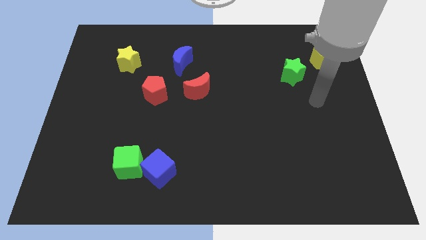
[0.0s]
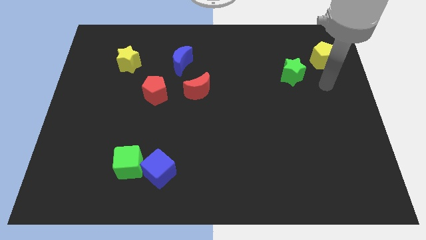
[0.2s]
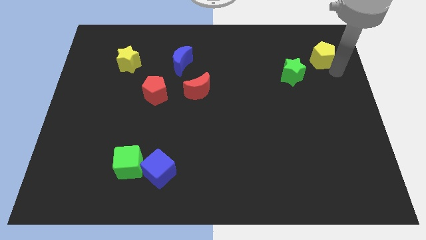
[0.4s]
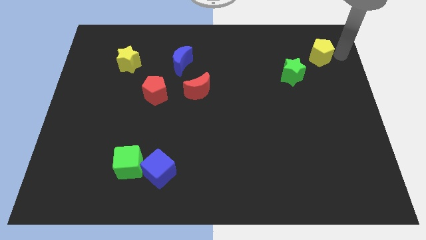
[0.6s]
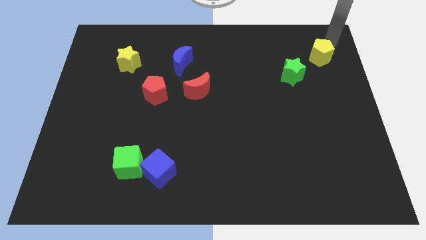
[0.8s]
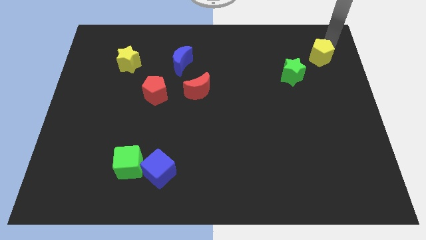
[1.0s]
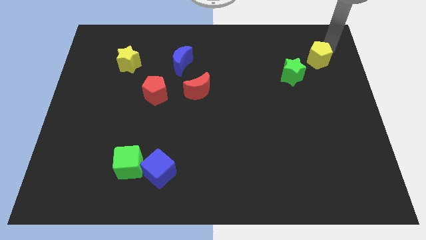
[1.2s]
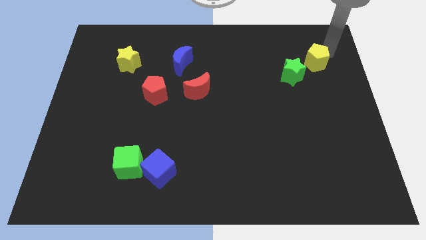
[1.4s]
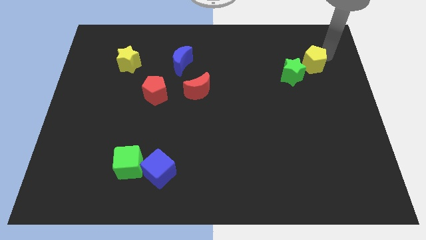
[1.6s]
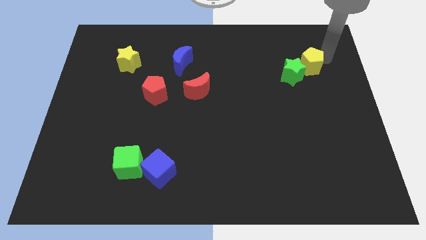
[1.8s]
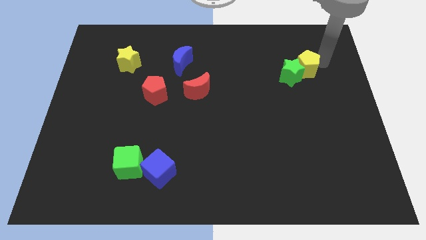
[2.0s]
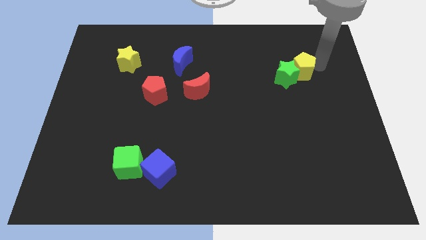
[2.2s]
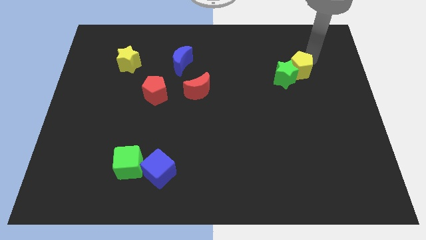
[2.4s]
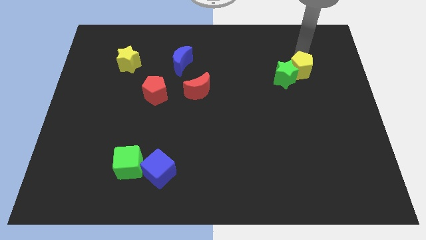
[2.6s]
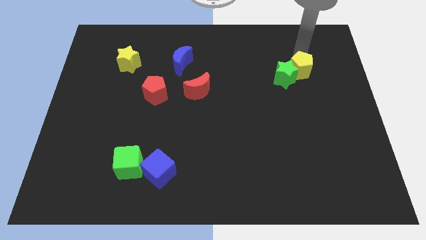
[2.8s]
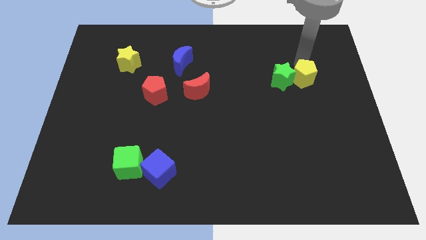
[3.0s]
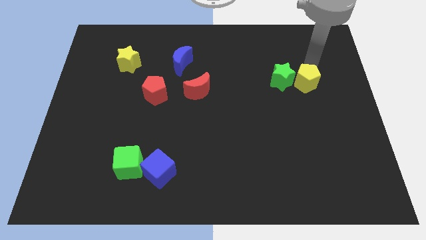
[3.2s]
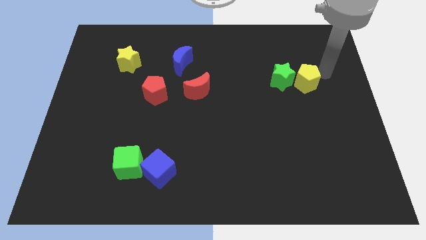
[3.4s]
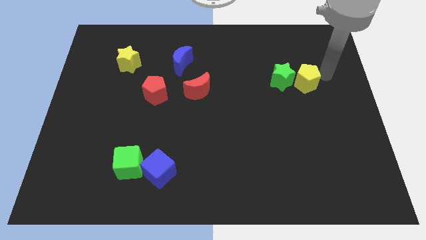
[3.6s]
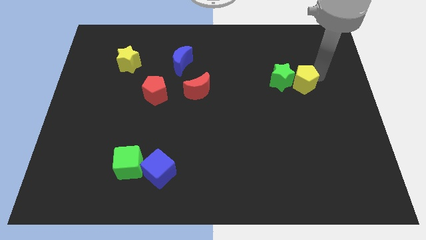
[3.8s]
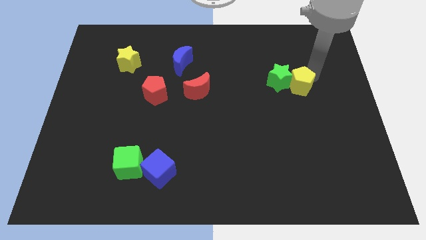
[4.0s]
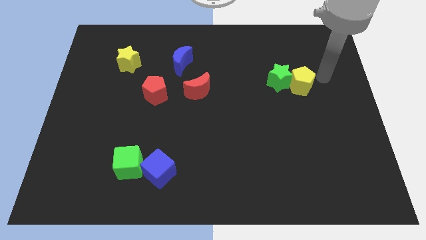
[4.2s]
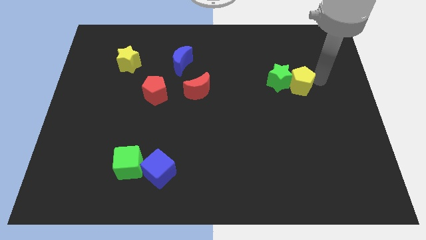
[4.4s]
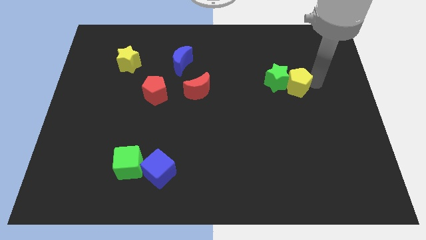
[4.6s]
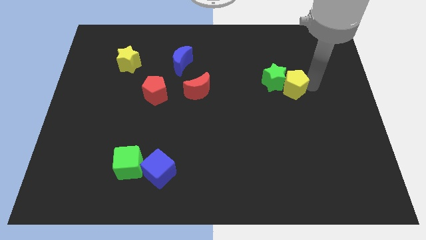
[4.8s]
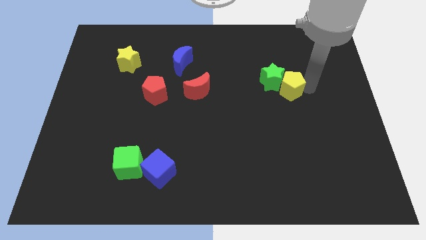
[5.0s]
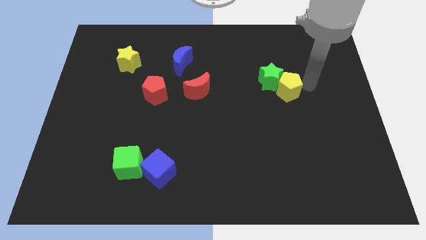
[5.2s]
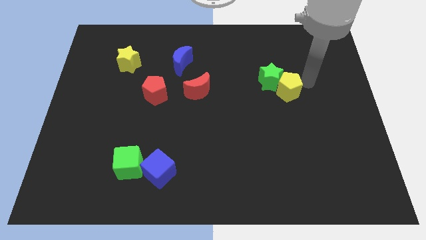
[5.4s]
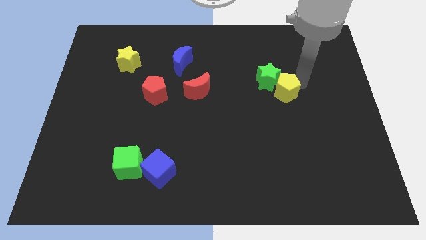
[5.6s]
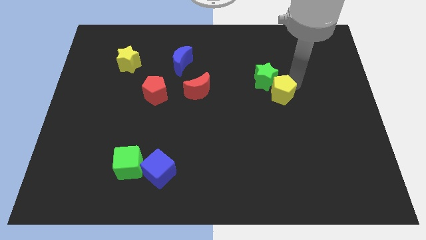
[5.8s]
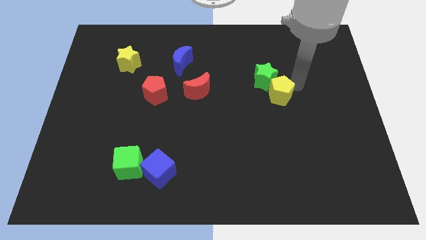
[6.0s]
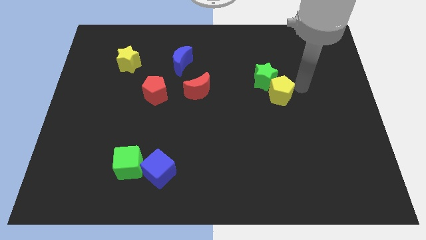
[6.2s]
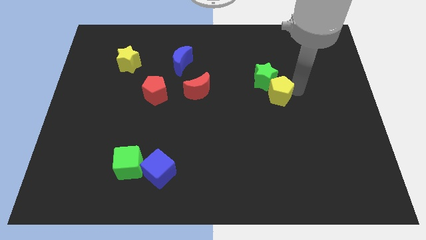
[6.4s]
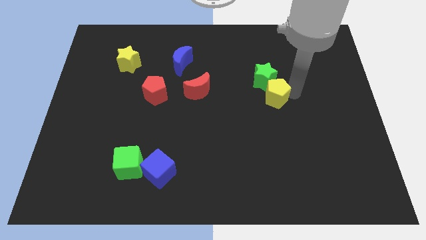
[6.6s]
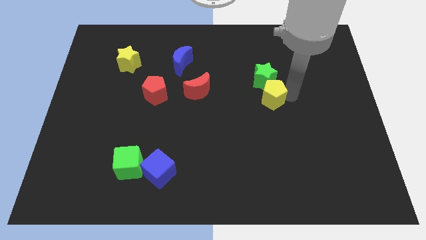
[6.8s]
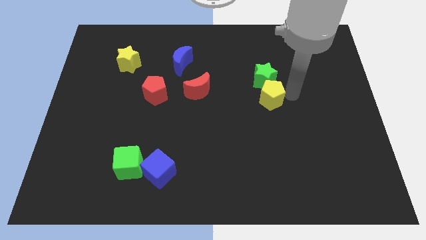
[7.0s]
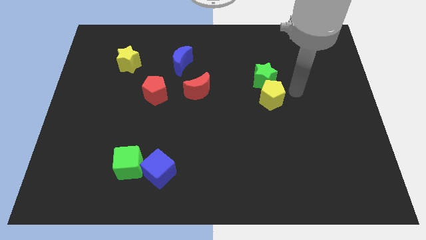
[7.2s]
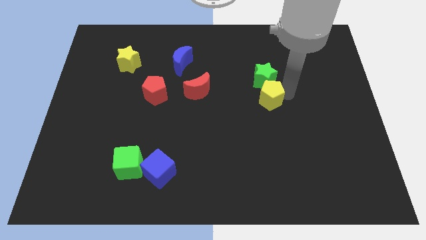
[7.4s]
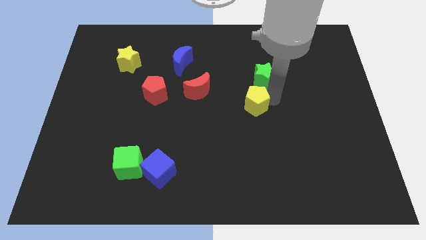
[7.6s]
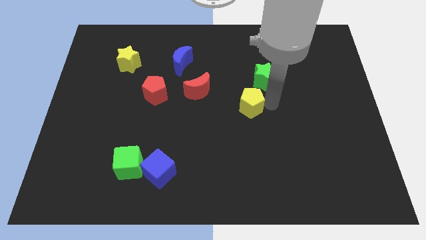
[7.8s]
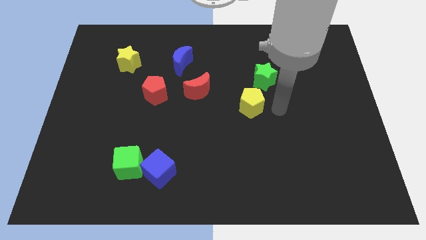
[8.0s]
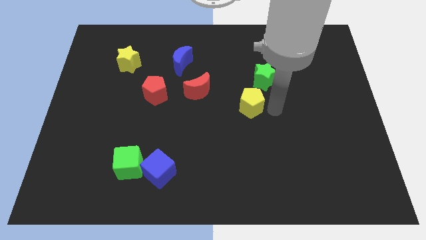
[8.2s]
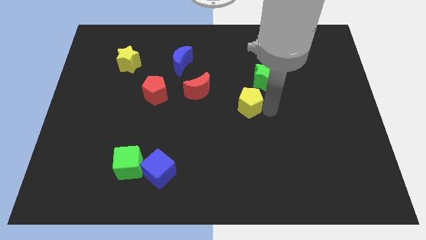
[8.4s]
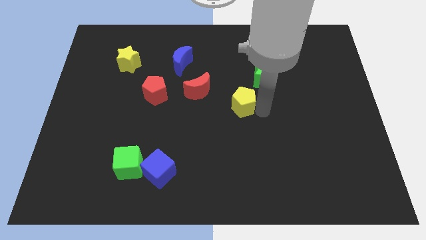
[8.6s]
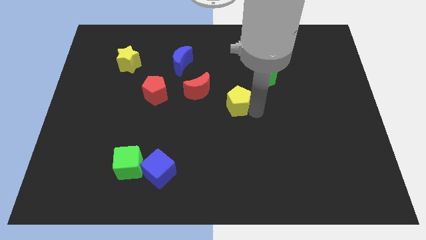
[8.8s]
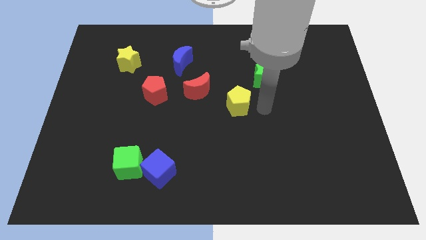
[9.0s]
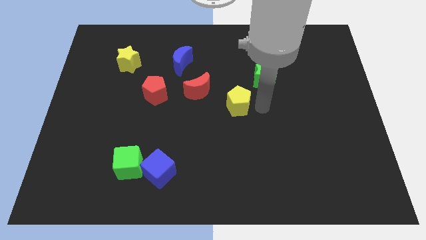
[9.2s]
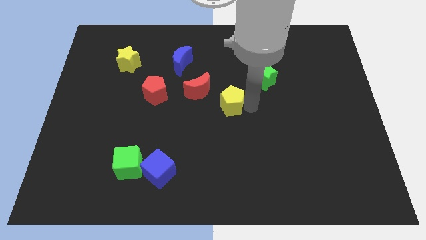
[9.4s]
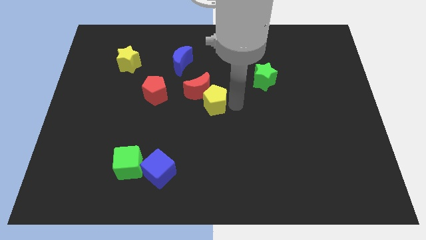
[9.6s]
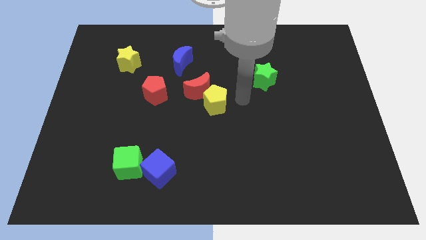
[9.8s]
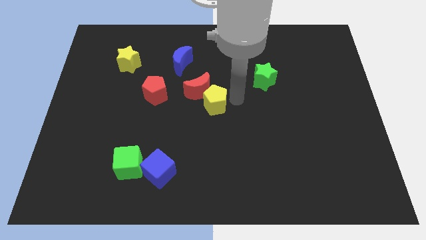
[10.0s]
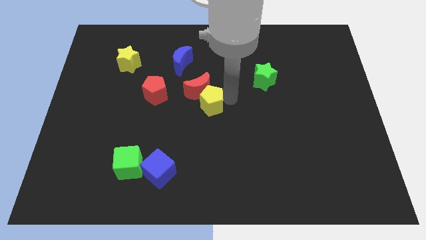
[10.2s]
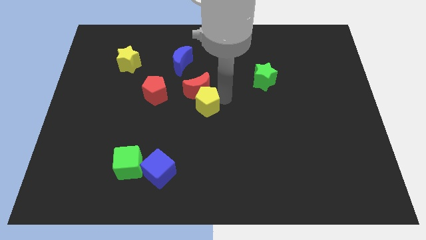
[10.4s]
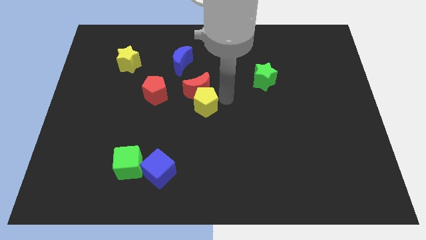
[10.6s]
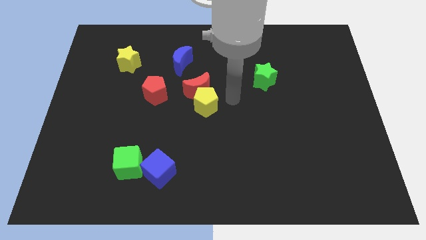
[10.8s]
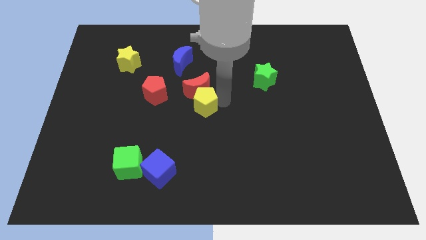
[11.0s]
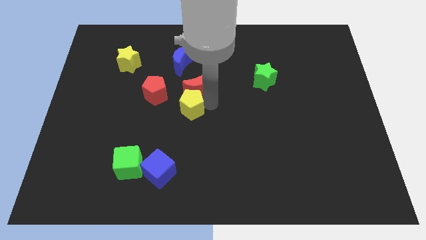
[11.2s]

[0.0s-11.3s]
slide the yellow pentagon to the bottom right of the red pentagon

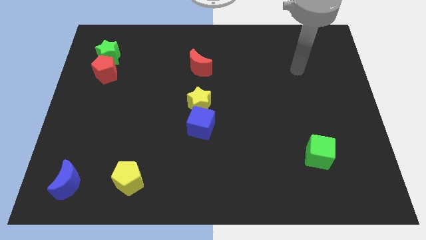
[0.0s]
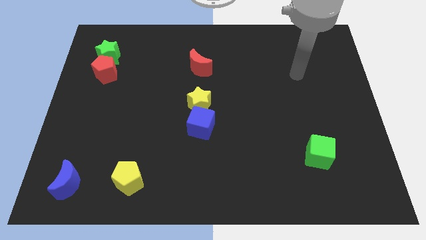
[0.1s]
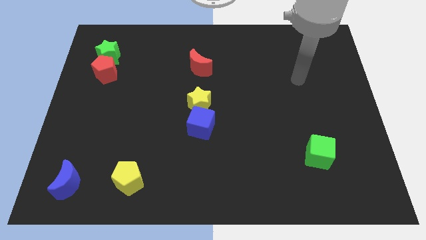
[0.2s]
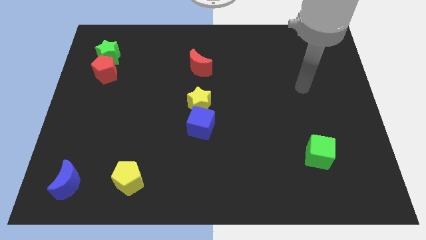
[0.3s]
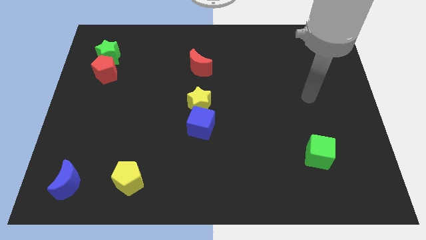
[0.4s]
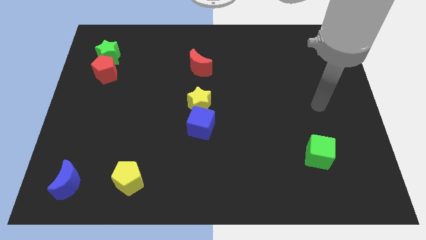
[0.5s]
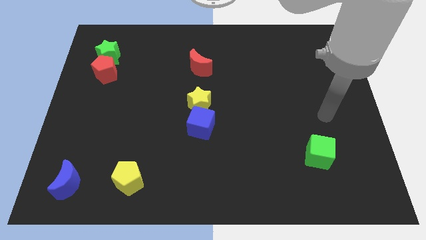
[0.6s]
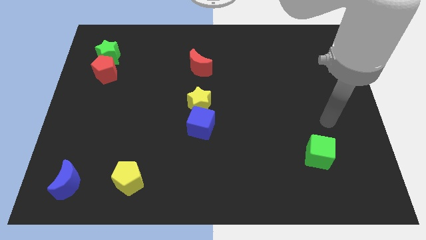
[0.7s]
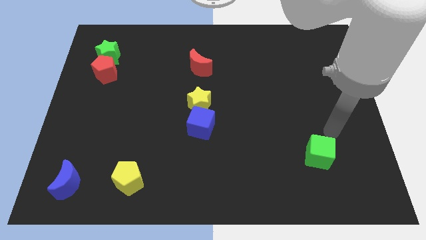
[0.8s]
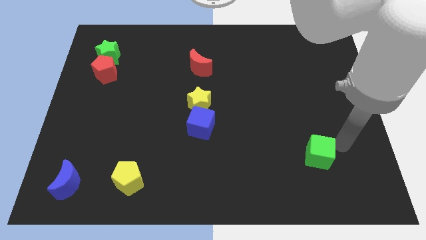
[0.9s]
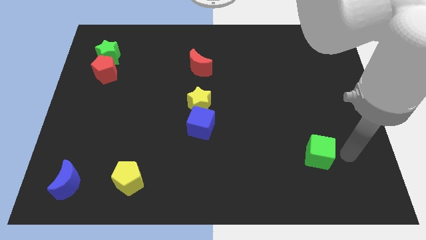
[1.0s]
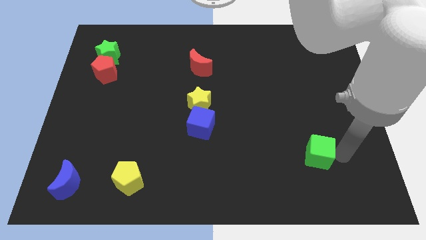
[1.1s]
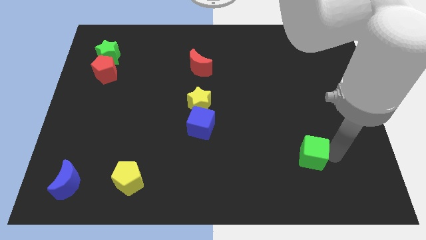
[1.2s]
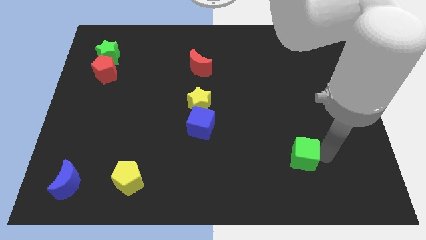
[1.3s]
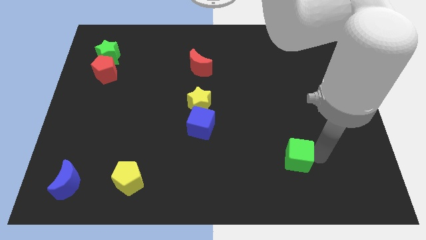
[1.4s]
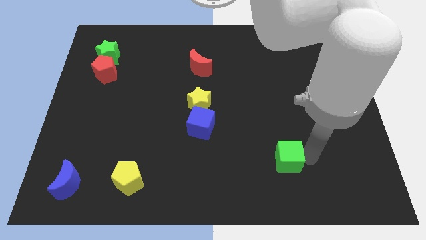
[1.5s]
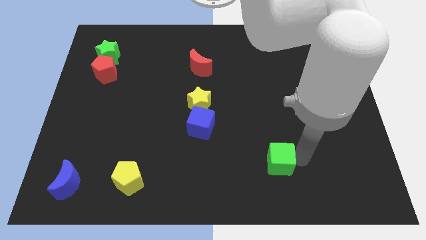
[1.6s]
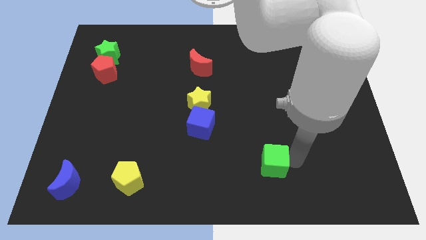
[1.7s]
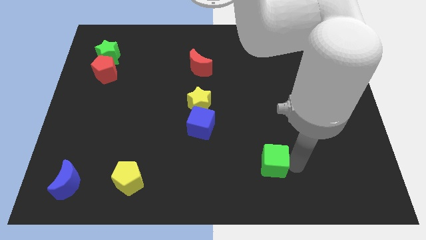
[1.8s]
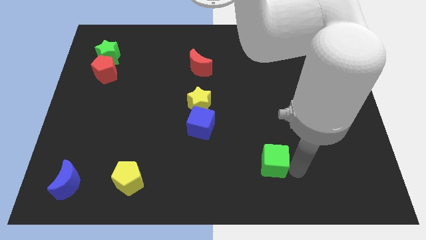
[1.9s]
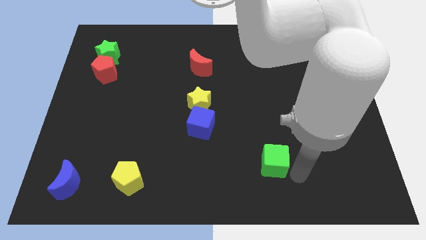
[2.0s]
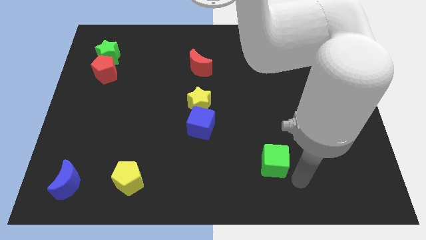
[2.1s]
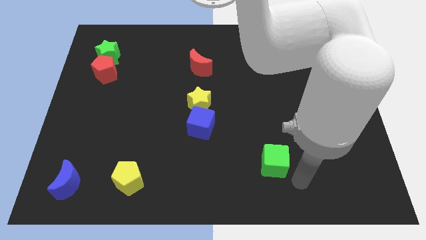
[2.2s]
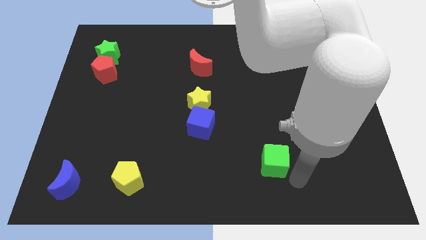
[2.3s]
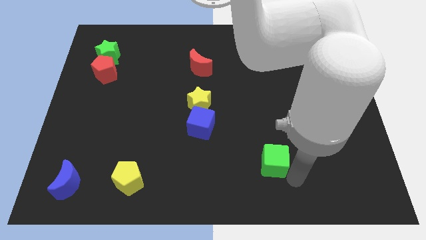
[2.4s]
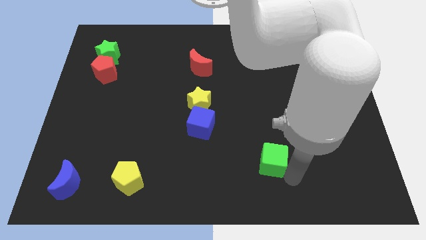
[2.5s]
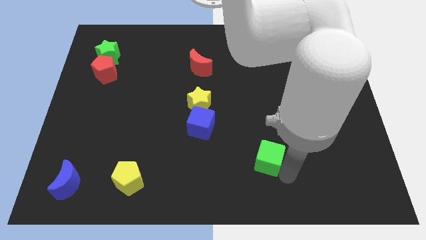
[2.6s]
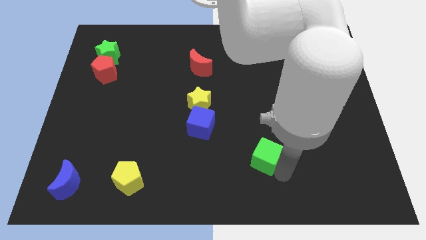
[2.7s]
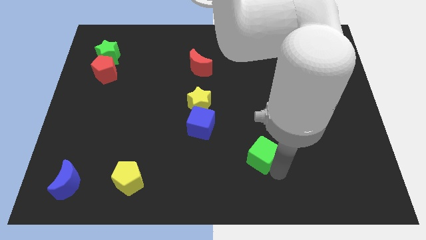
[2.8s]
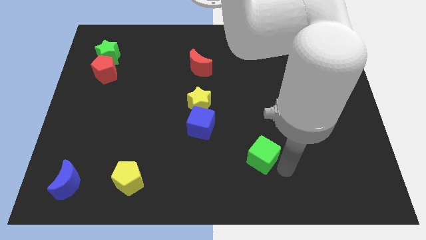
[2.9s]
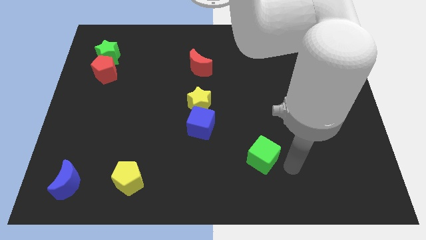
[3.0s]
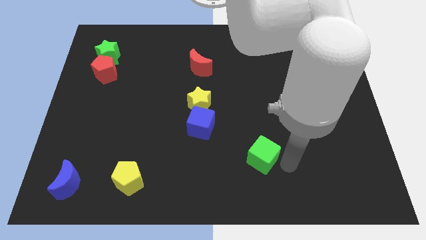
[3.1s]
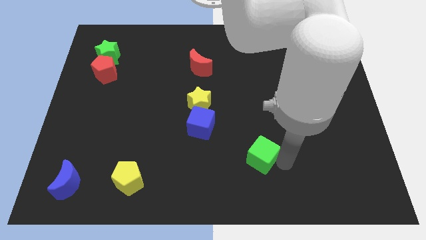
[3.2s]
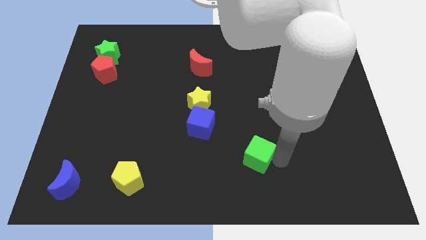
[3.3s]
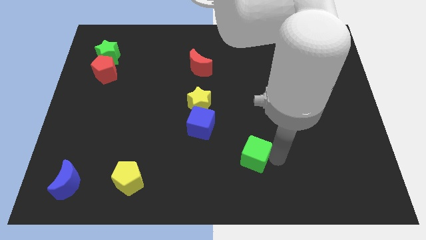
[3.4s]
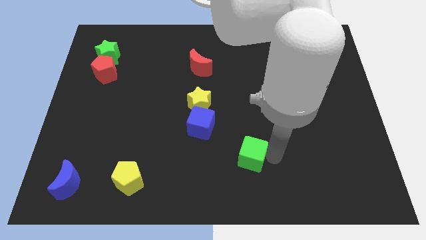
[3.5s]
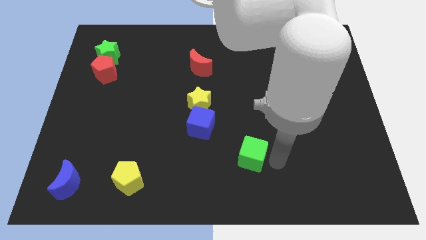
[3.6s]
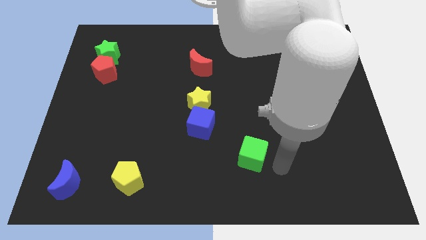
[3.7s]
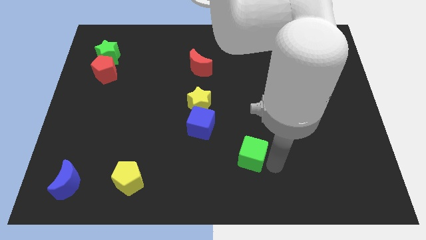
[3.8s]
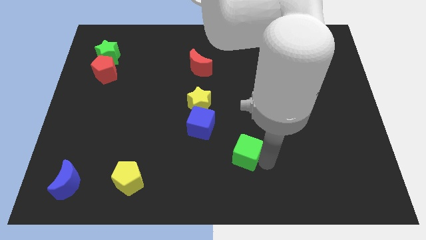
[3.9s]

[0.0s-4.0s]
put the green cube diagonally down and to the right of the blue cube
